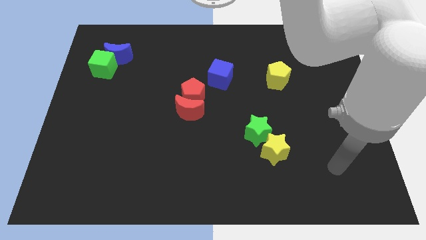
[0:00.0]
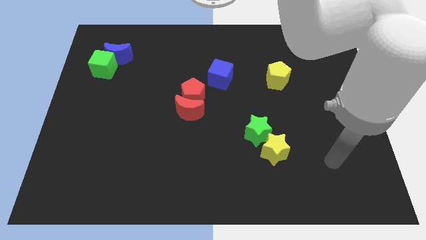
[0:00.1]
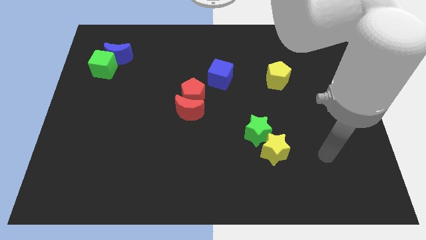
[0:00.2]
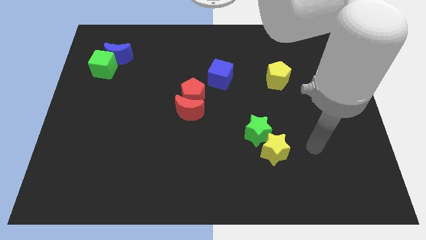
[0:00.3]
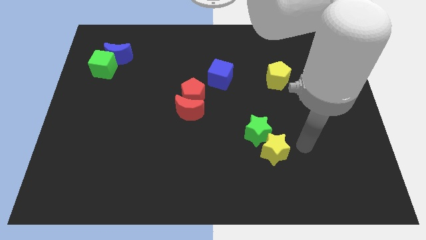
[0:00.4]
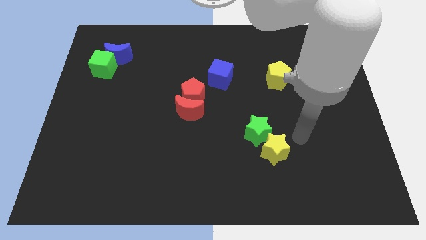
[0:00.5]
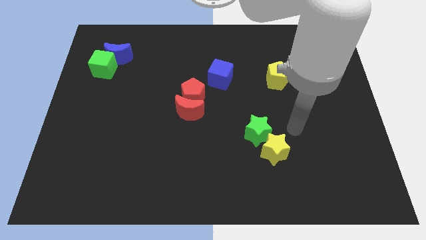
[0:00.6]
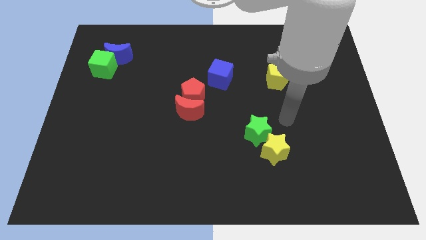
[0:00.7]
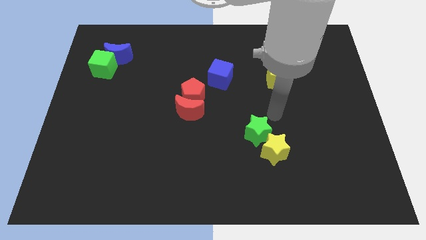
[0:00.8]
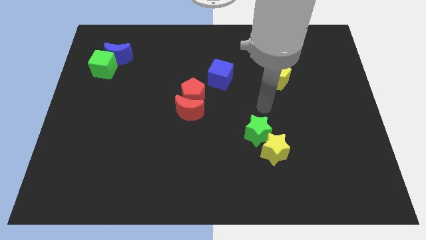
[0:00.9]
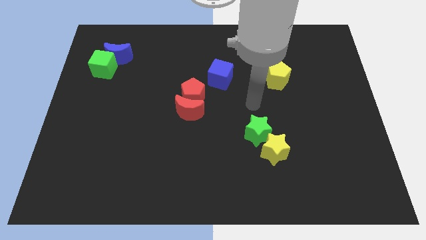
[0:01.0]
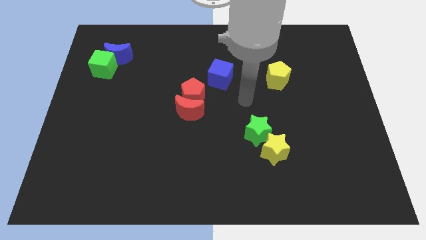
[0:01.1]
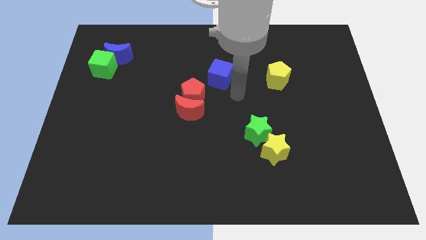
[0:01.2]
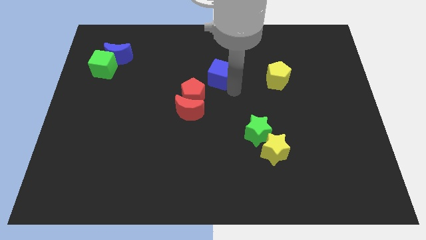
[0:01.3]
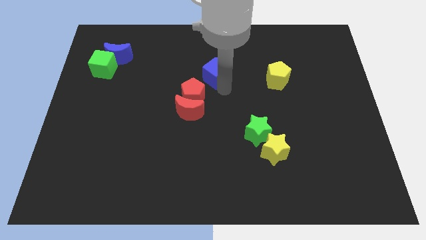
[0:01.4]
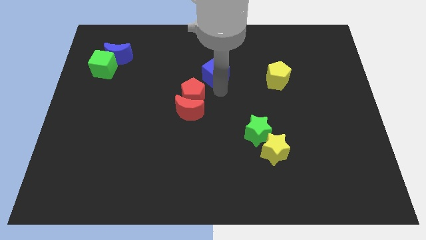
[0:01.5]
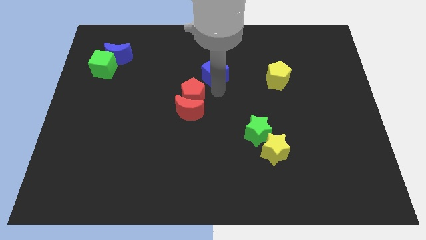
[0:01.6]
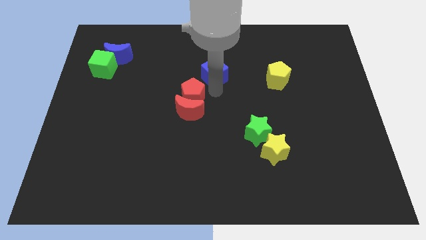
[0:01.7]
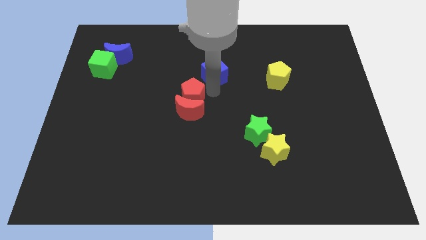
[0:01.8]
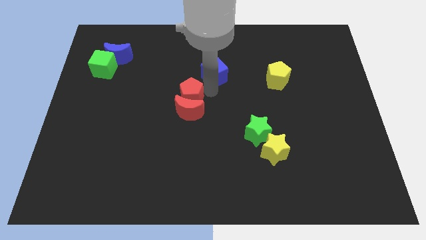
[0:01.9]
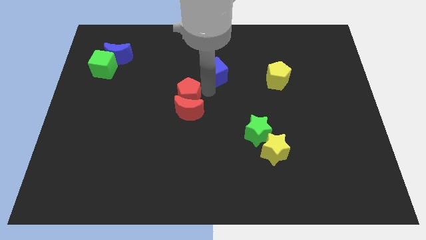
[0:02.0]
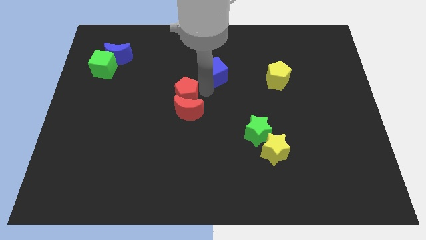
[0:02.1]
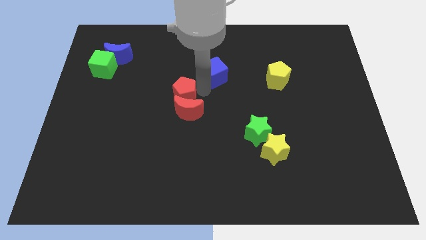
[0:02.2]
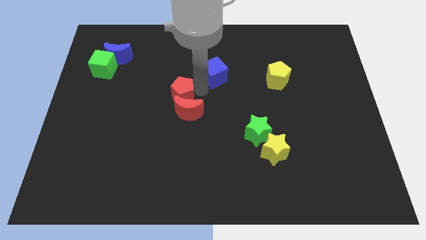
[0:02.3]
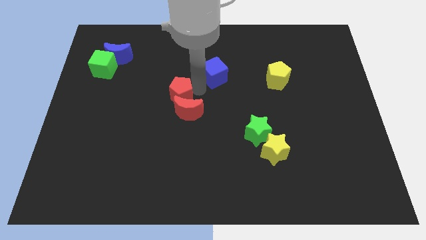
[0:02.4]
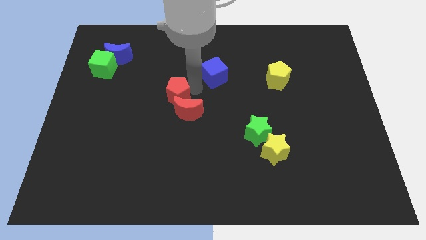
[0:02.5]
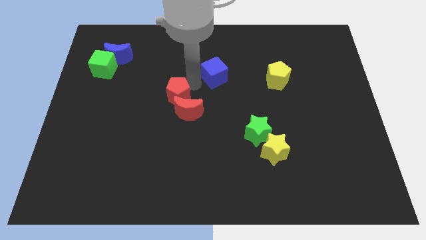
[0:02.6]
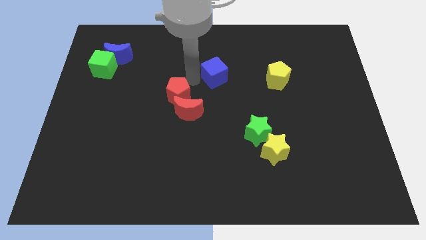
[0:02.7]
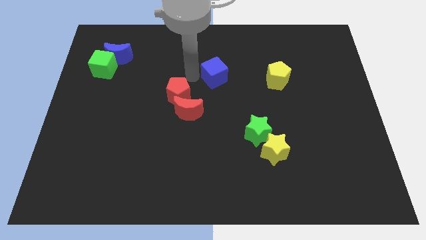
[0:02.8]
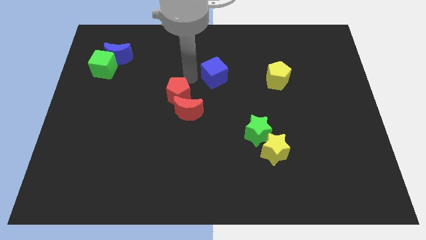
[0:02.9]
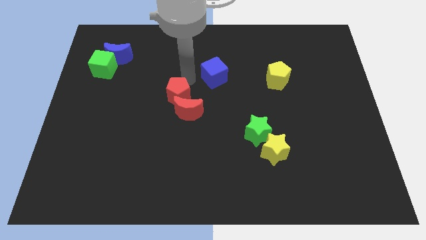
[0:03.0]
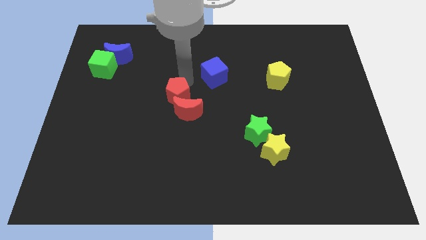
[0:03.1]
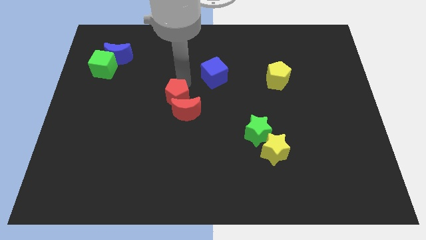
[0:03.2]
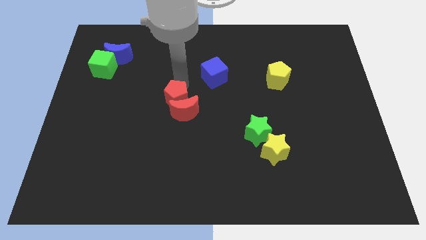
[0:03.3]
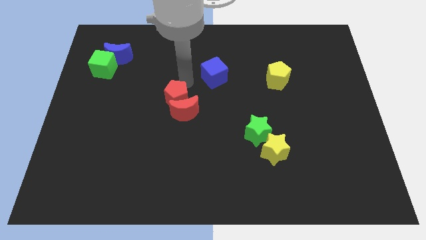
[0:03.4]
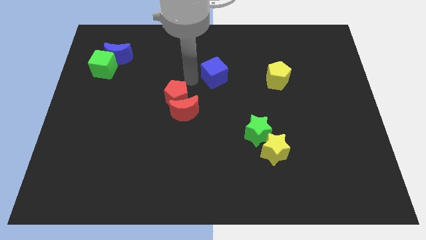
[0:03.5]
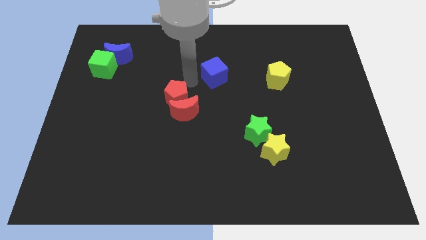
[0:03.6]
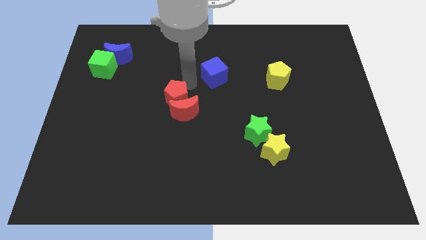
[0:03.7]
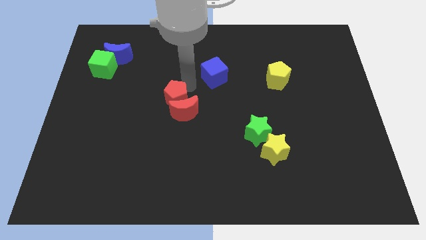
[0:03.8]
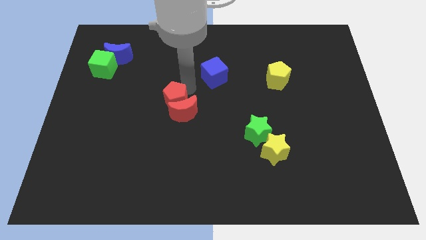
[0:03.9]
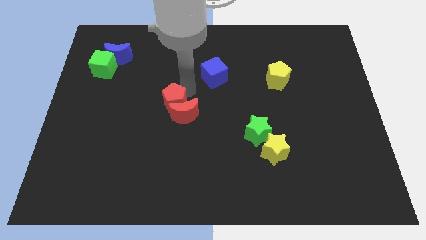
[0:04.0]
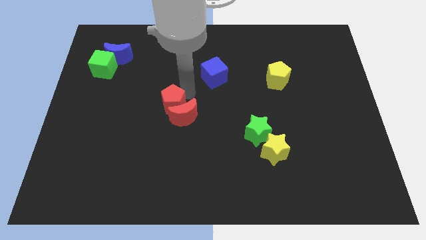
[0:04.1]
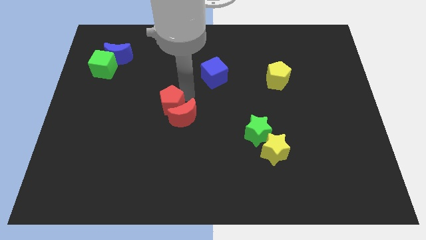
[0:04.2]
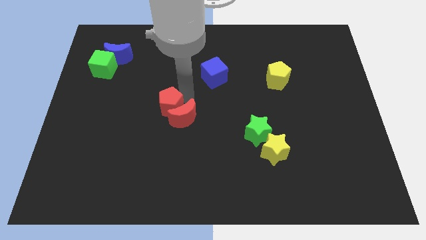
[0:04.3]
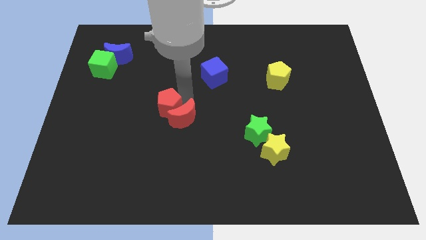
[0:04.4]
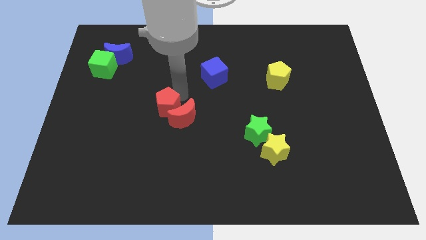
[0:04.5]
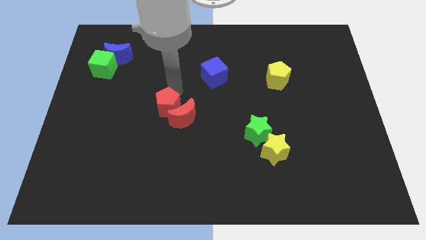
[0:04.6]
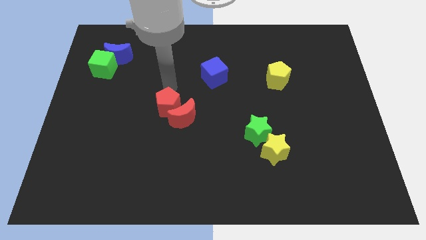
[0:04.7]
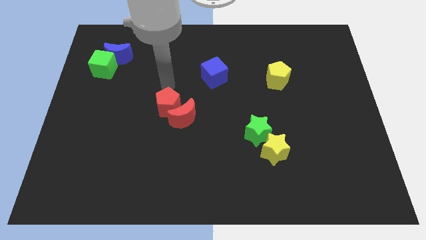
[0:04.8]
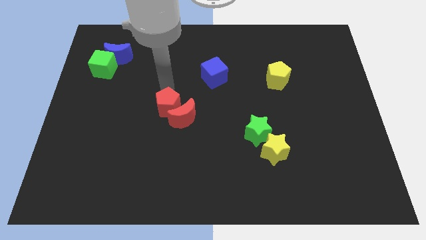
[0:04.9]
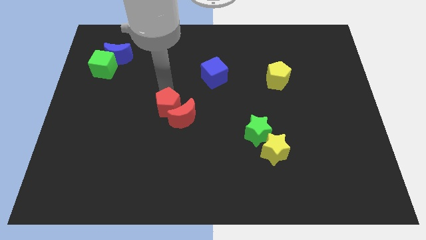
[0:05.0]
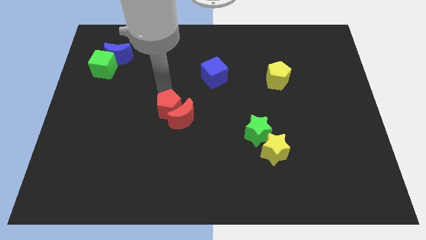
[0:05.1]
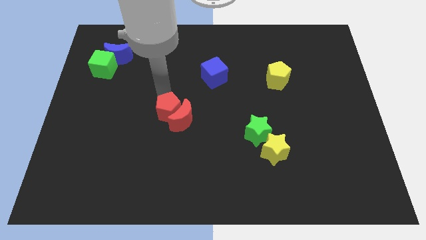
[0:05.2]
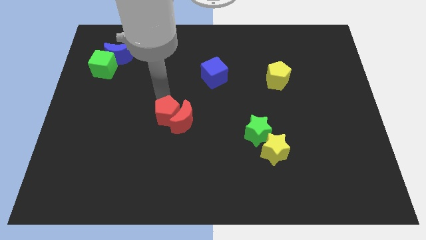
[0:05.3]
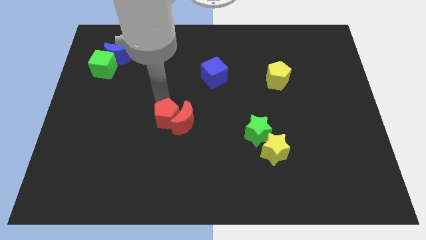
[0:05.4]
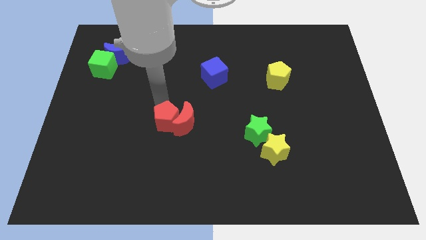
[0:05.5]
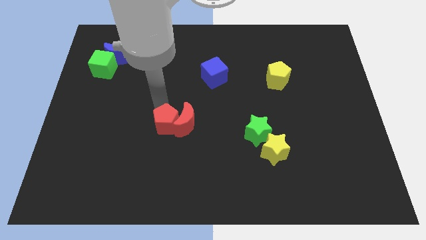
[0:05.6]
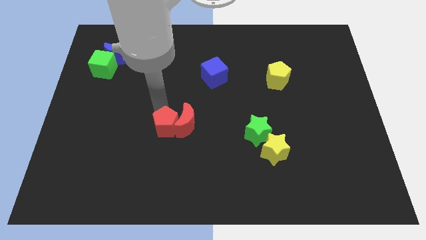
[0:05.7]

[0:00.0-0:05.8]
slide the red pentagon a little bit downwards

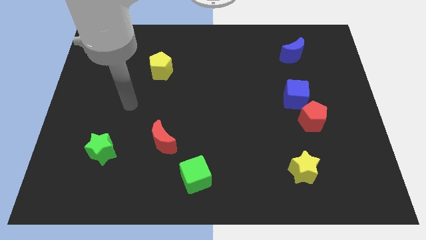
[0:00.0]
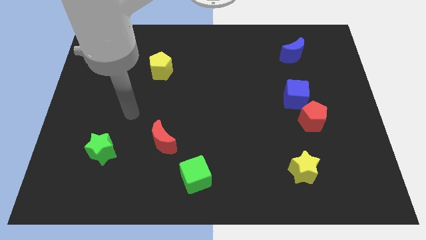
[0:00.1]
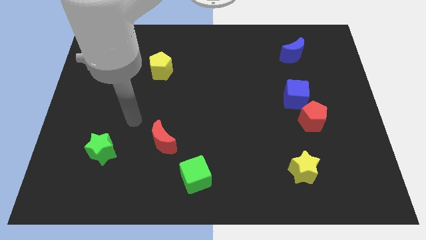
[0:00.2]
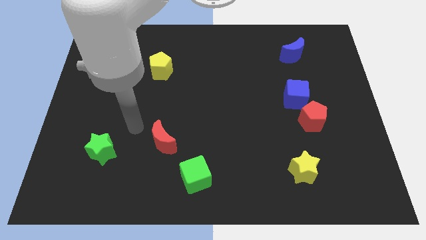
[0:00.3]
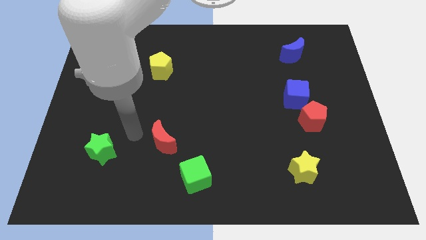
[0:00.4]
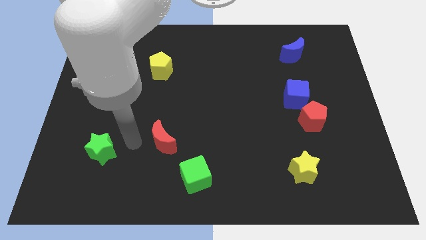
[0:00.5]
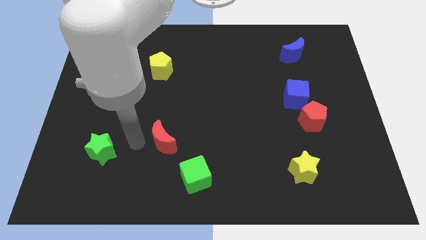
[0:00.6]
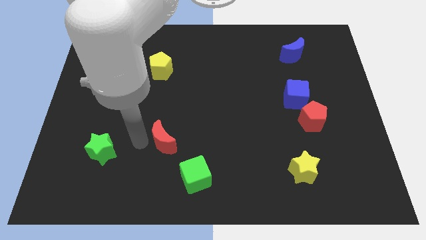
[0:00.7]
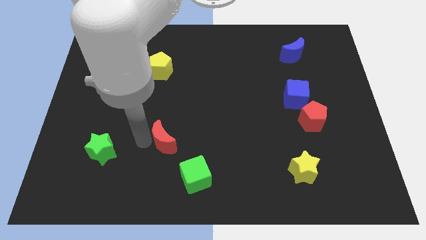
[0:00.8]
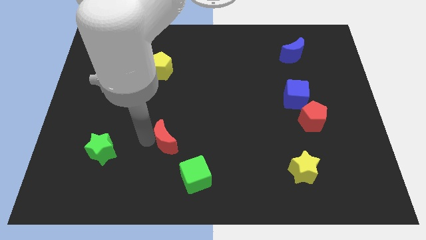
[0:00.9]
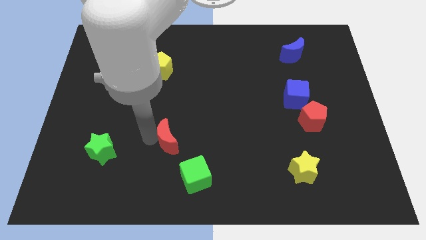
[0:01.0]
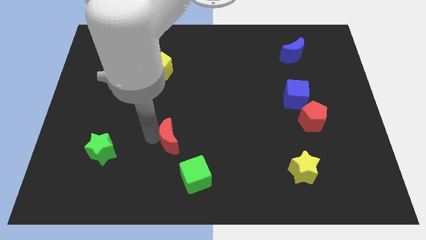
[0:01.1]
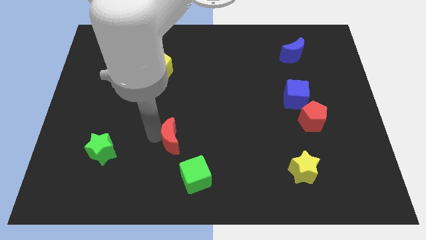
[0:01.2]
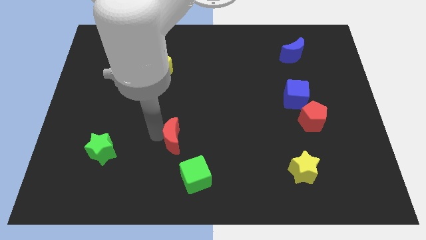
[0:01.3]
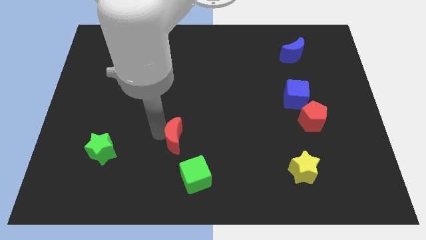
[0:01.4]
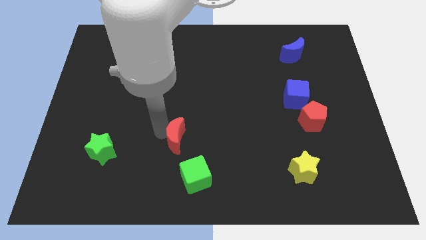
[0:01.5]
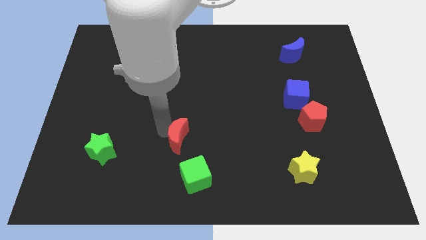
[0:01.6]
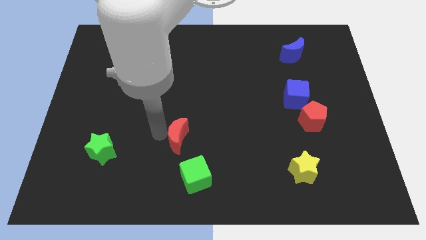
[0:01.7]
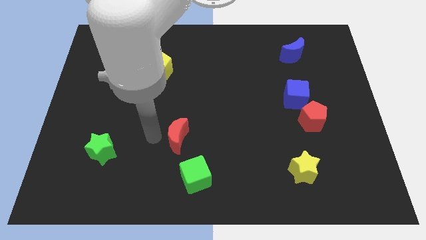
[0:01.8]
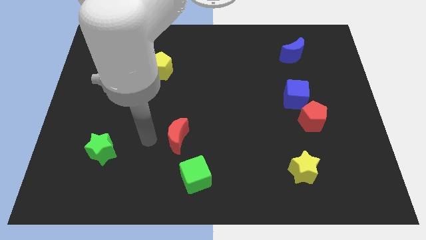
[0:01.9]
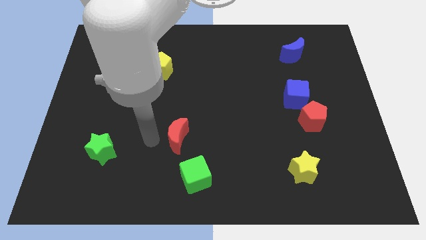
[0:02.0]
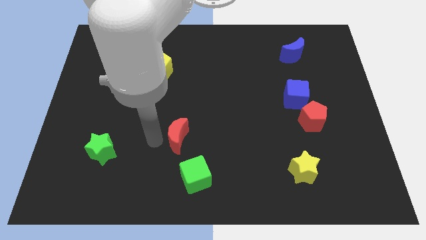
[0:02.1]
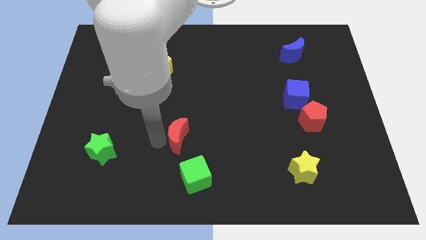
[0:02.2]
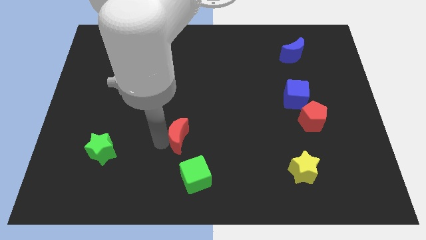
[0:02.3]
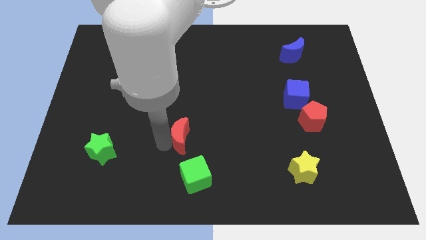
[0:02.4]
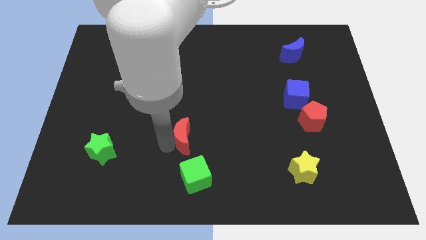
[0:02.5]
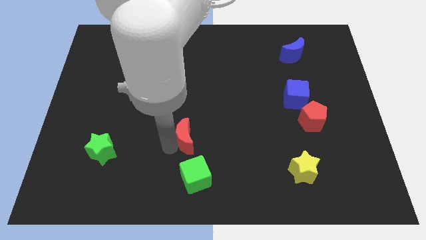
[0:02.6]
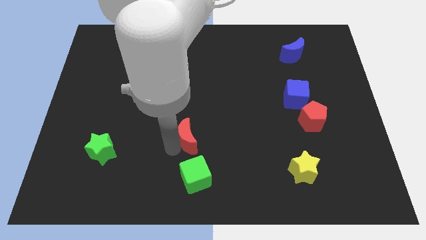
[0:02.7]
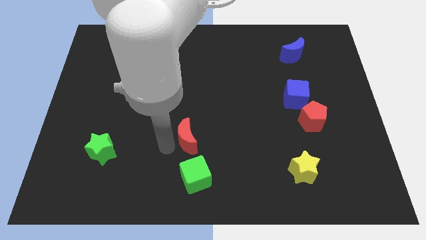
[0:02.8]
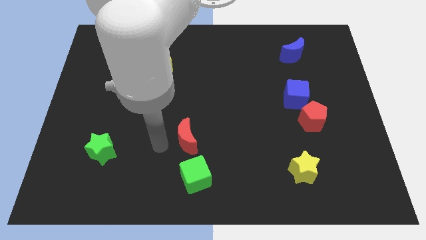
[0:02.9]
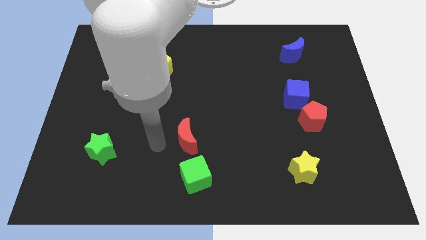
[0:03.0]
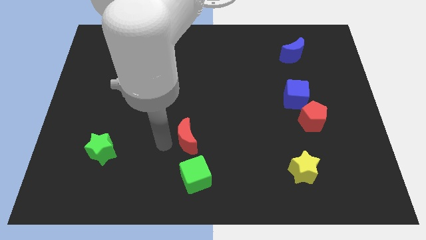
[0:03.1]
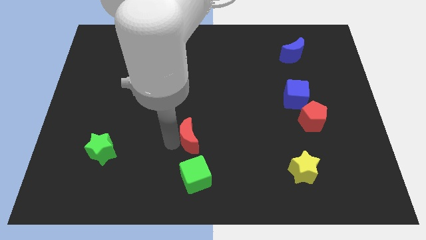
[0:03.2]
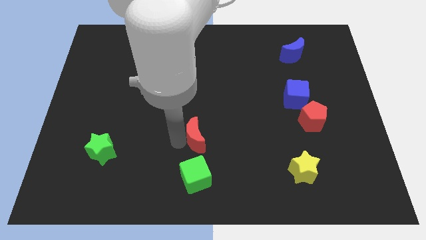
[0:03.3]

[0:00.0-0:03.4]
slightly move the red moon right
